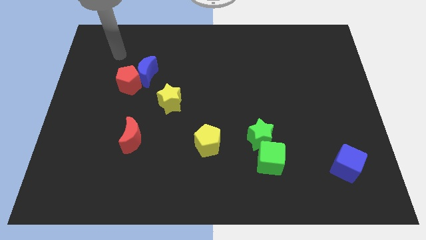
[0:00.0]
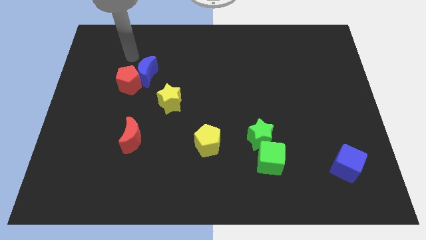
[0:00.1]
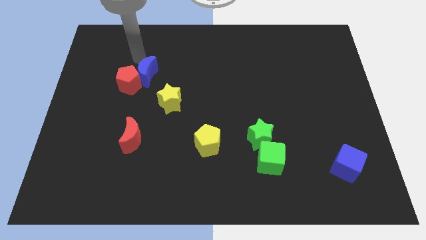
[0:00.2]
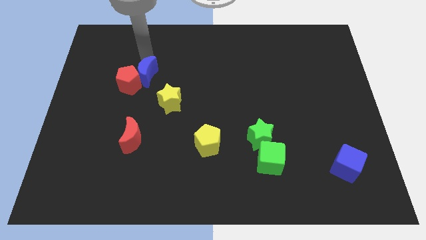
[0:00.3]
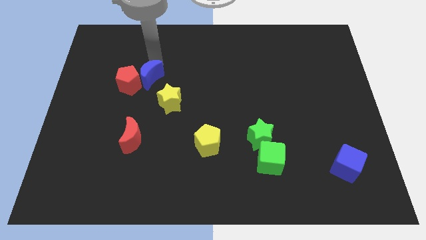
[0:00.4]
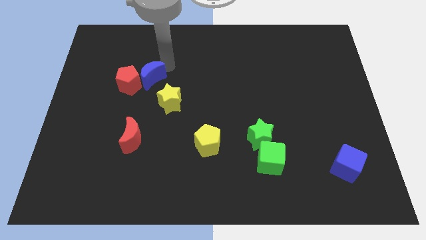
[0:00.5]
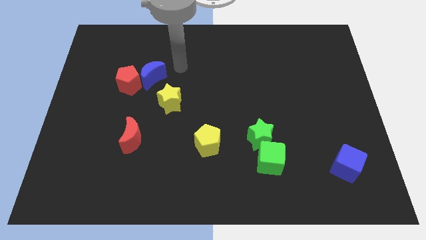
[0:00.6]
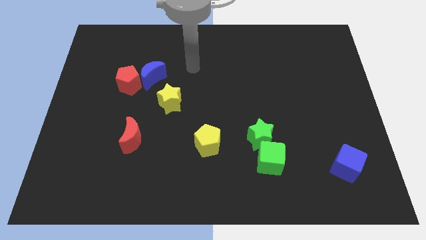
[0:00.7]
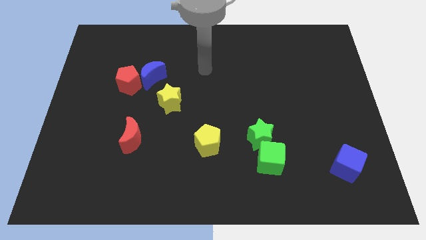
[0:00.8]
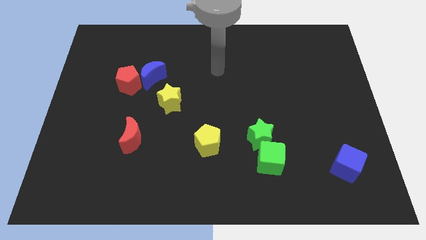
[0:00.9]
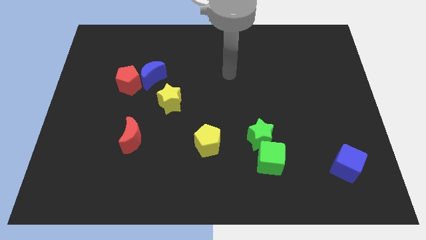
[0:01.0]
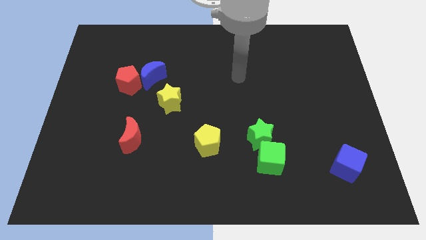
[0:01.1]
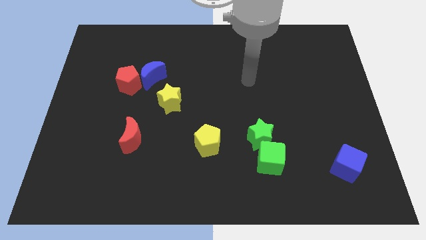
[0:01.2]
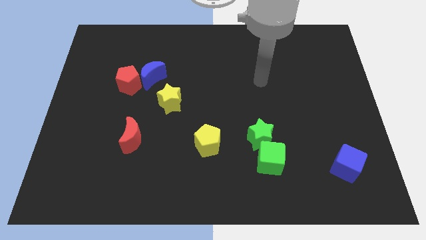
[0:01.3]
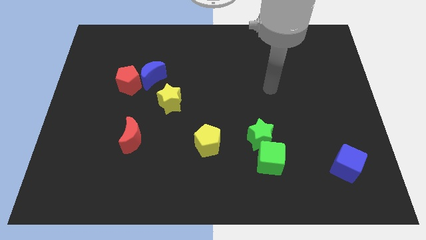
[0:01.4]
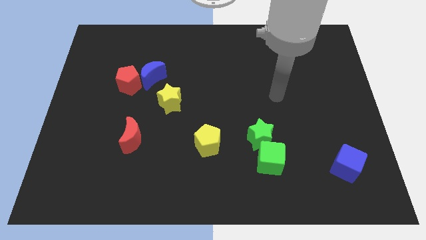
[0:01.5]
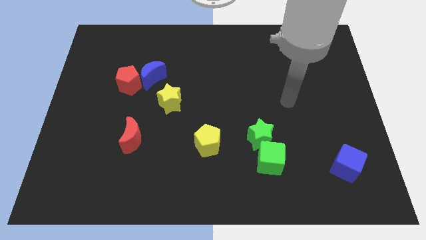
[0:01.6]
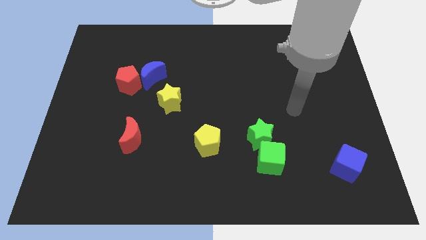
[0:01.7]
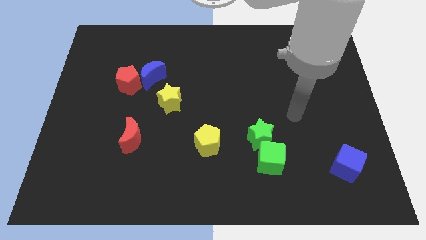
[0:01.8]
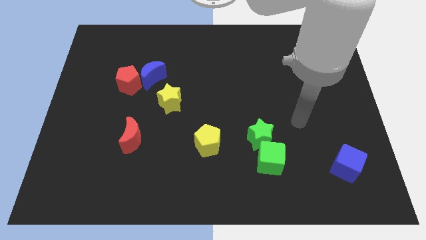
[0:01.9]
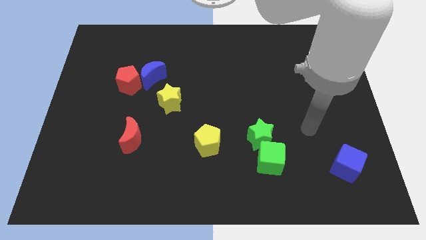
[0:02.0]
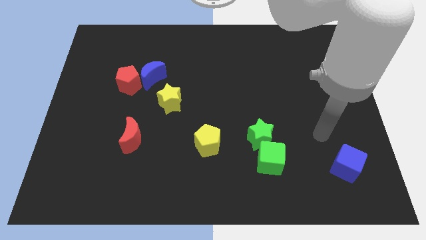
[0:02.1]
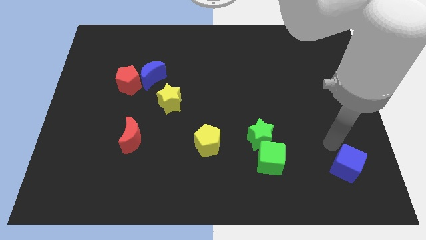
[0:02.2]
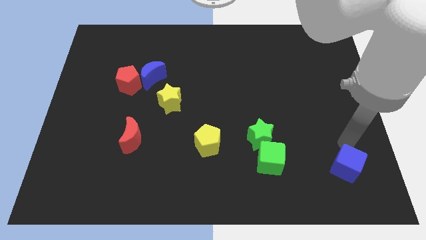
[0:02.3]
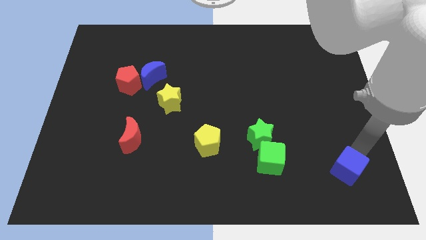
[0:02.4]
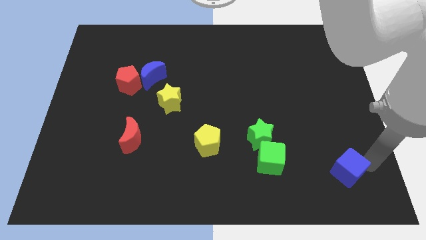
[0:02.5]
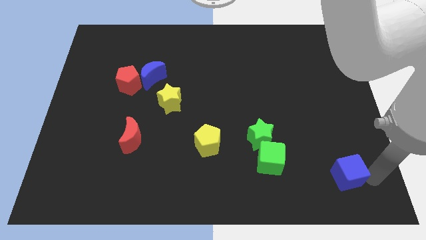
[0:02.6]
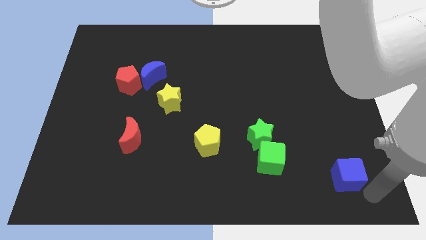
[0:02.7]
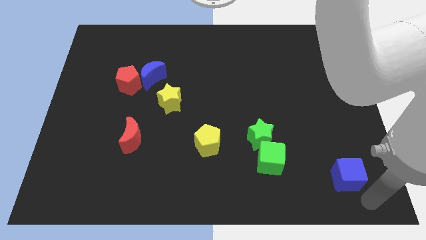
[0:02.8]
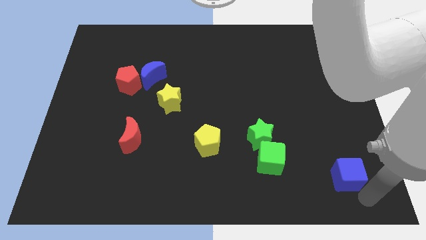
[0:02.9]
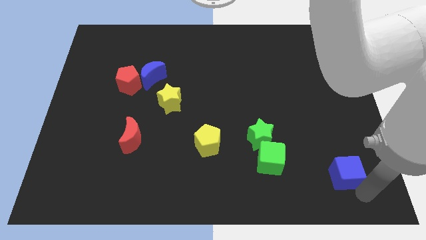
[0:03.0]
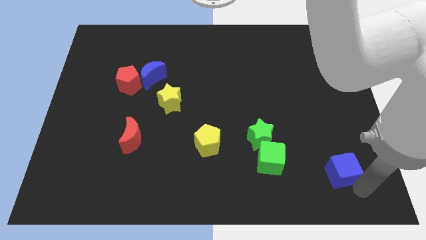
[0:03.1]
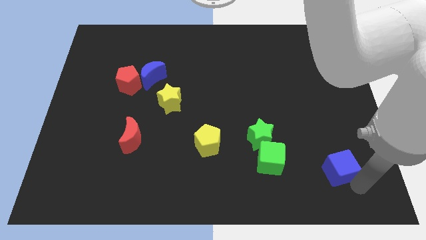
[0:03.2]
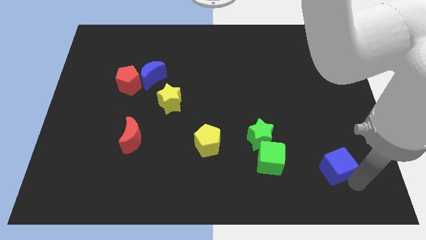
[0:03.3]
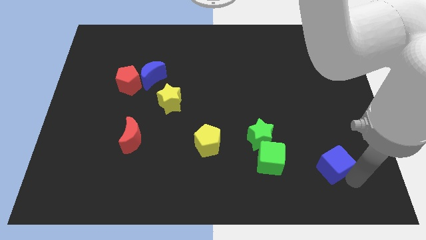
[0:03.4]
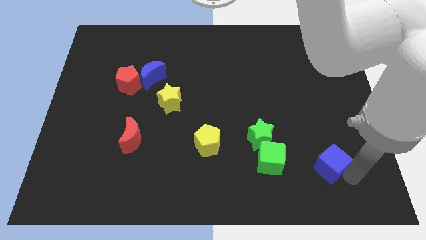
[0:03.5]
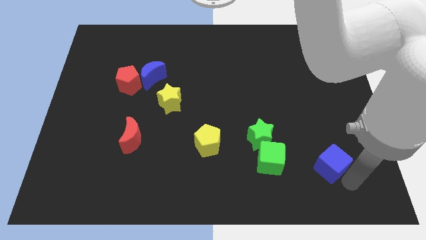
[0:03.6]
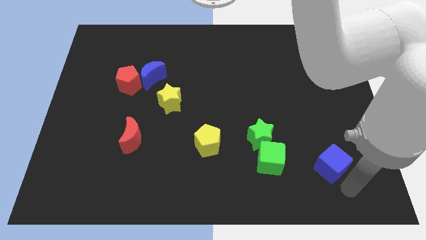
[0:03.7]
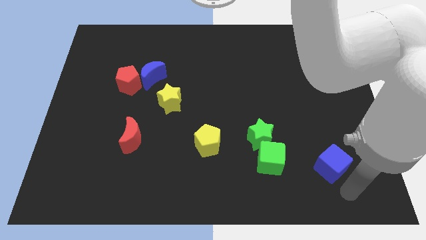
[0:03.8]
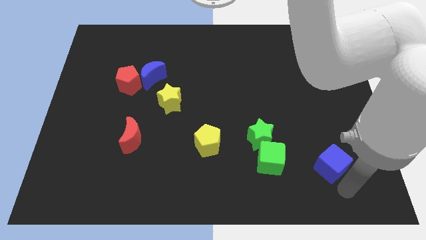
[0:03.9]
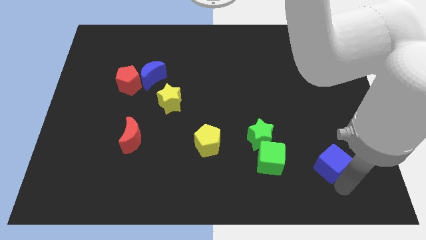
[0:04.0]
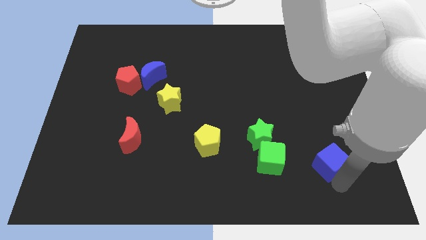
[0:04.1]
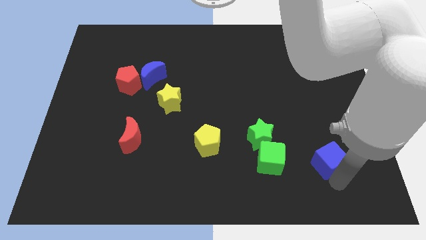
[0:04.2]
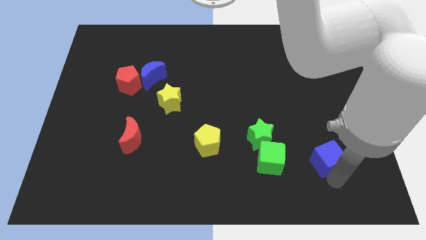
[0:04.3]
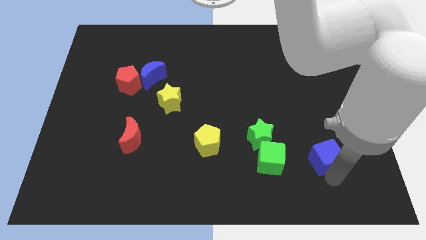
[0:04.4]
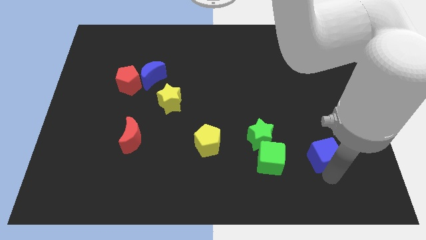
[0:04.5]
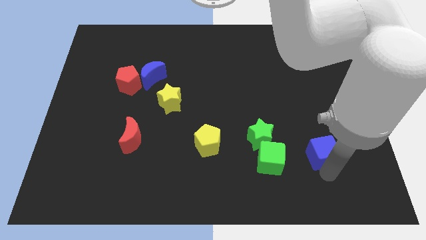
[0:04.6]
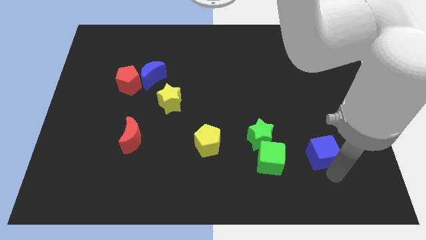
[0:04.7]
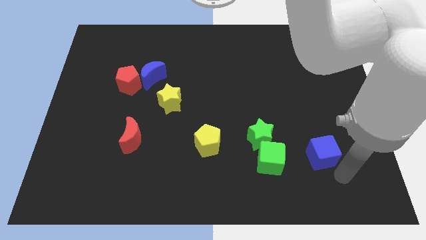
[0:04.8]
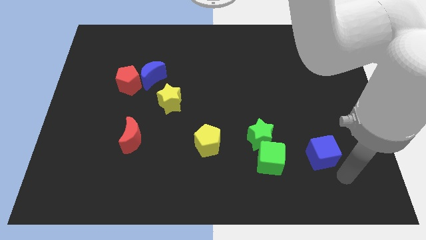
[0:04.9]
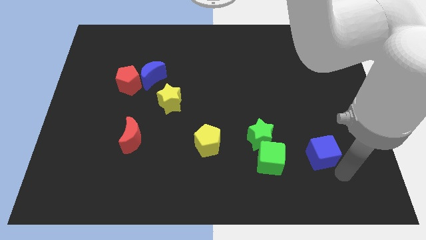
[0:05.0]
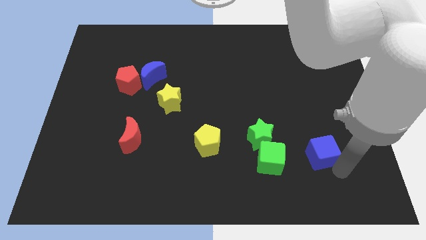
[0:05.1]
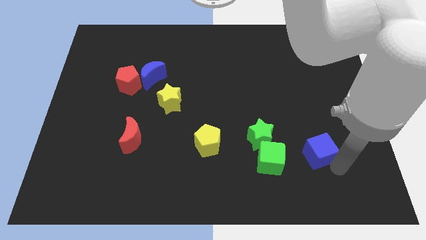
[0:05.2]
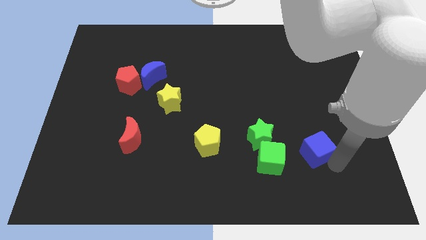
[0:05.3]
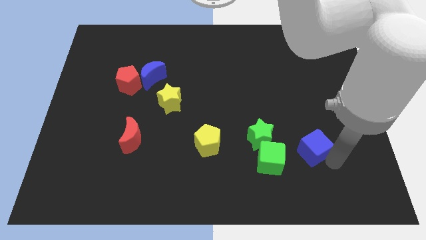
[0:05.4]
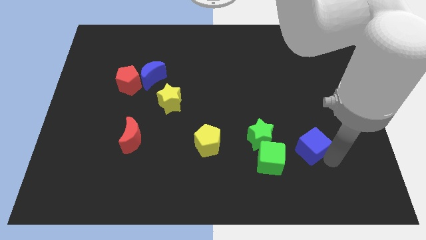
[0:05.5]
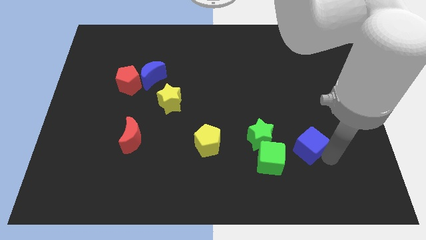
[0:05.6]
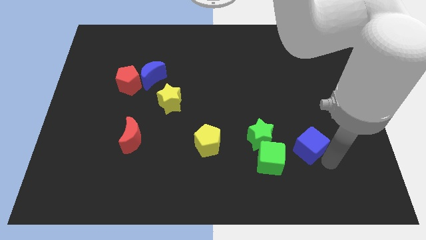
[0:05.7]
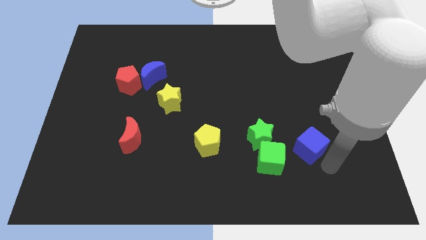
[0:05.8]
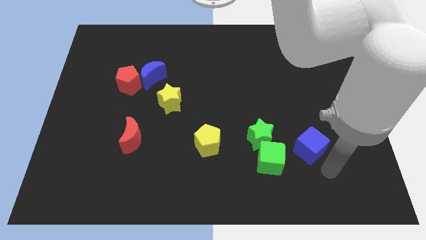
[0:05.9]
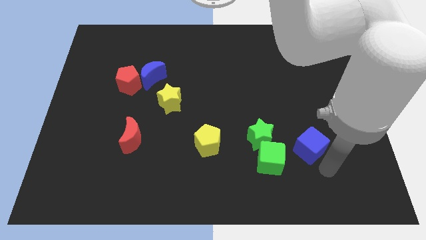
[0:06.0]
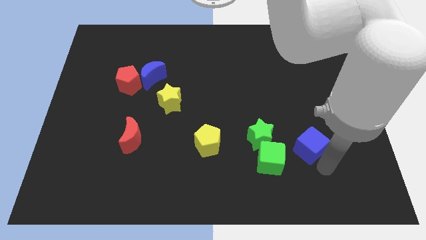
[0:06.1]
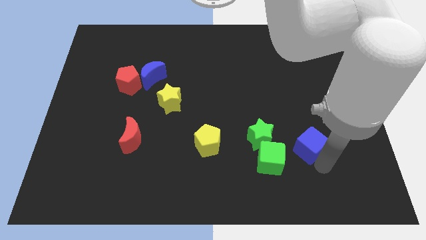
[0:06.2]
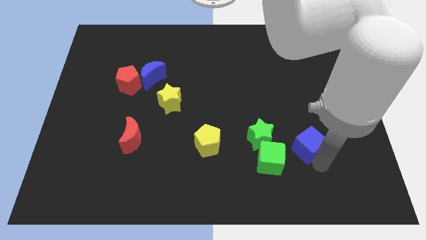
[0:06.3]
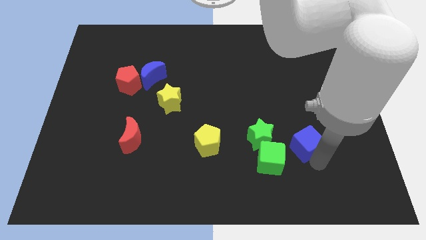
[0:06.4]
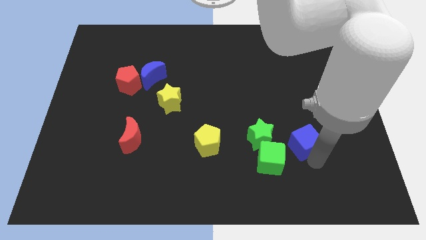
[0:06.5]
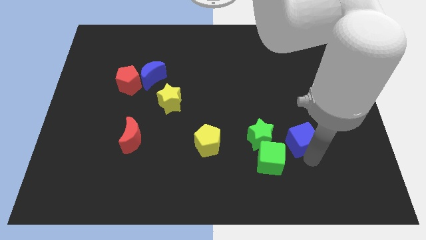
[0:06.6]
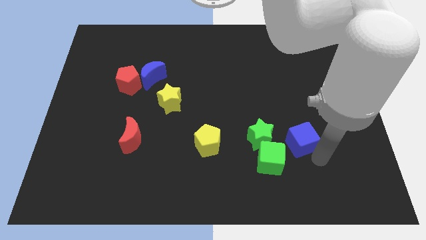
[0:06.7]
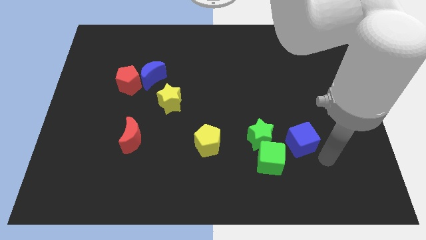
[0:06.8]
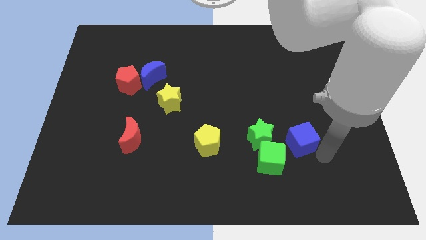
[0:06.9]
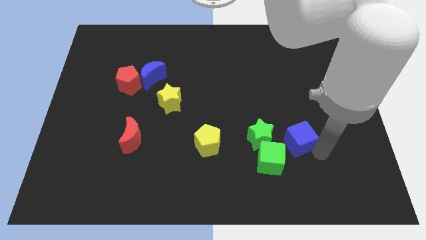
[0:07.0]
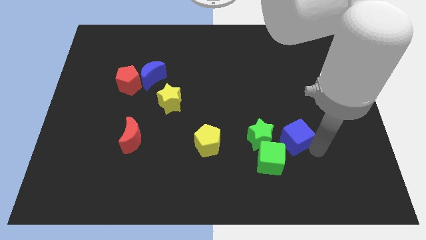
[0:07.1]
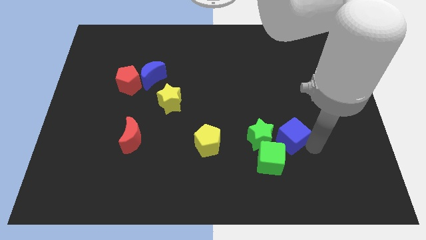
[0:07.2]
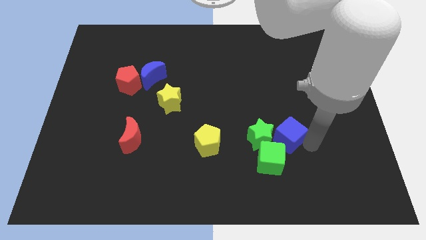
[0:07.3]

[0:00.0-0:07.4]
push the blue cube above the green cube
